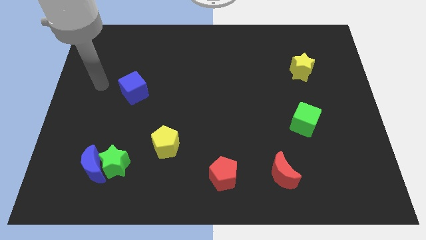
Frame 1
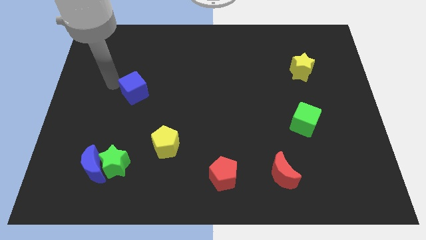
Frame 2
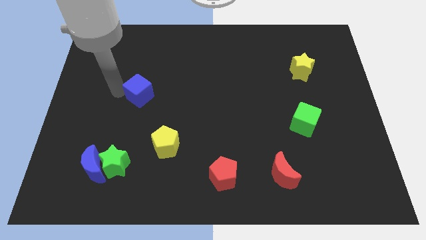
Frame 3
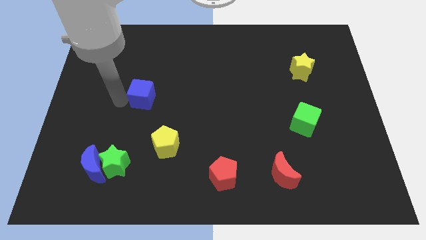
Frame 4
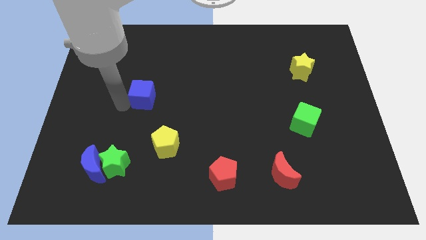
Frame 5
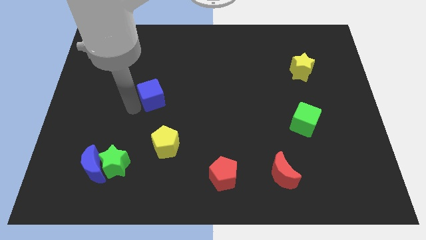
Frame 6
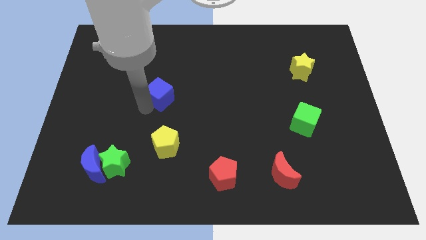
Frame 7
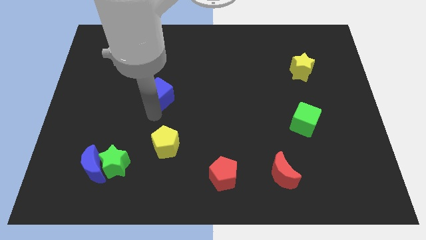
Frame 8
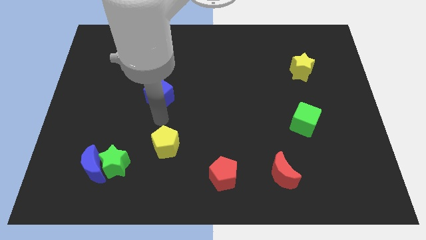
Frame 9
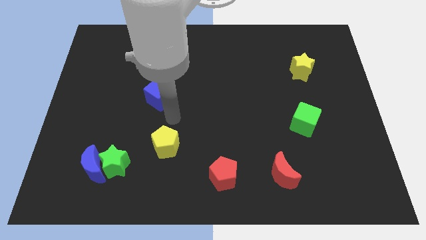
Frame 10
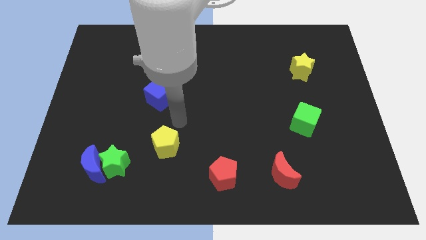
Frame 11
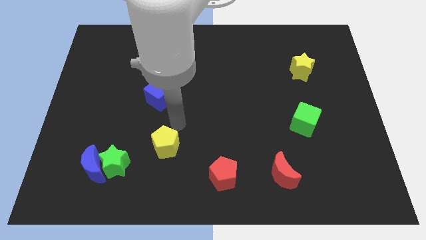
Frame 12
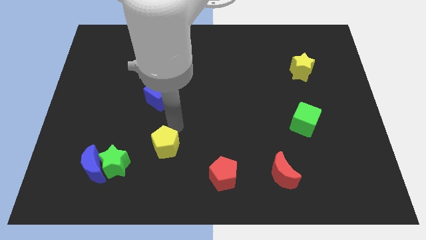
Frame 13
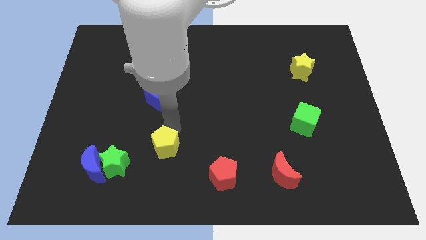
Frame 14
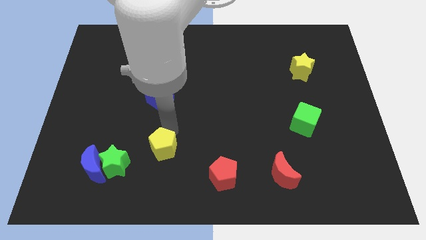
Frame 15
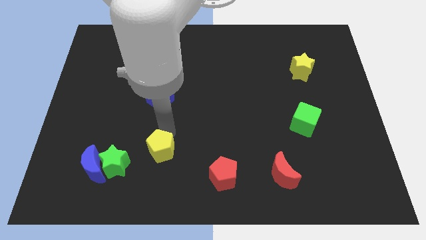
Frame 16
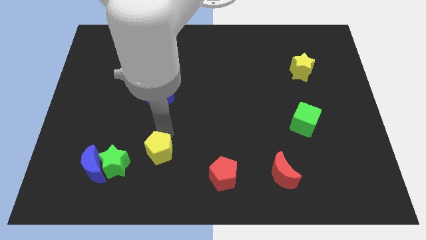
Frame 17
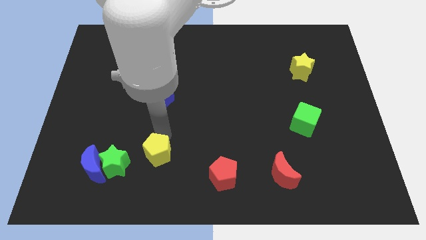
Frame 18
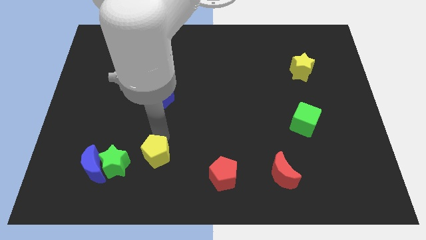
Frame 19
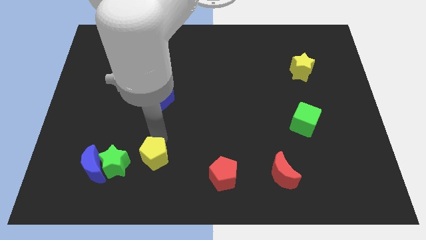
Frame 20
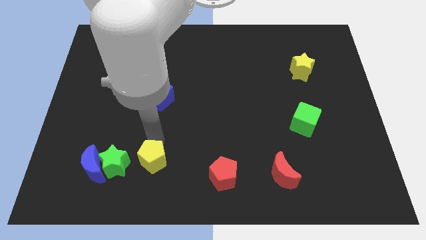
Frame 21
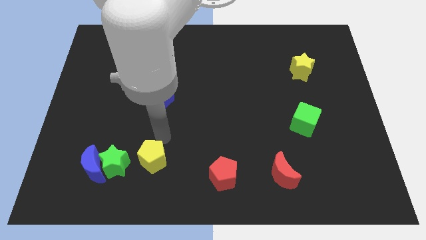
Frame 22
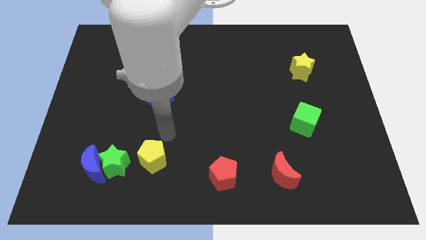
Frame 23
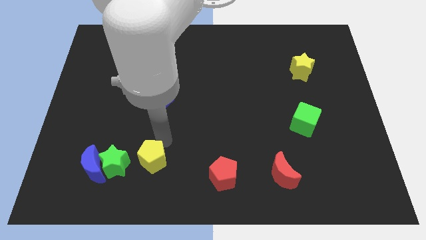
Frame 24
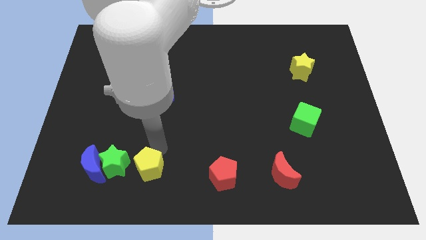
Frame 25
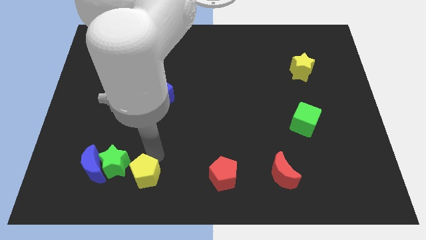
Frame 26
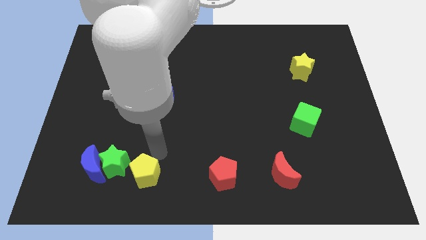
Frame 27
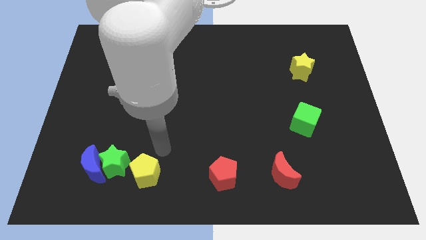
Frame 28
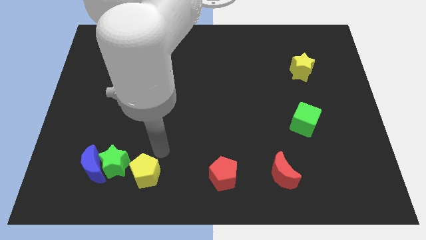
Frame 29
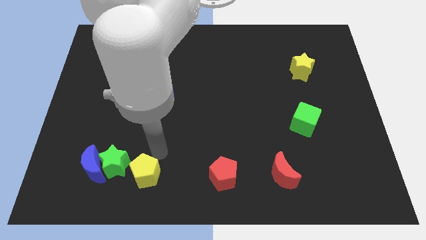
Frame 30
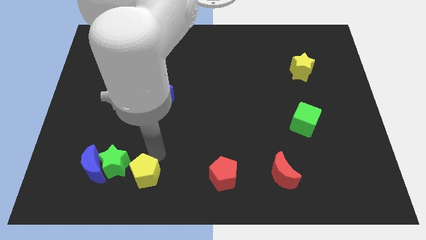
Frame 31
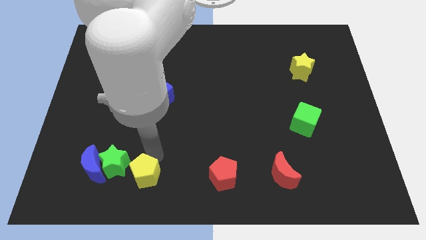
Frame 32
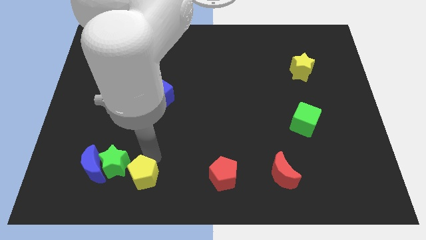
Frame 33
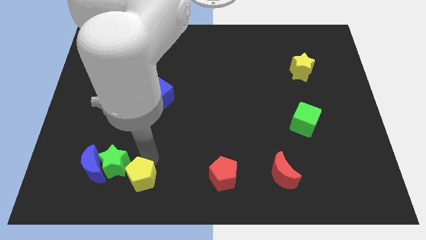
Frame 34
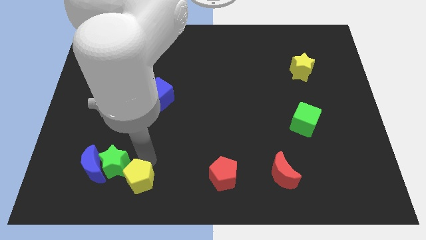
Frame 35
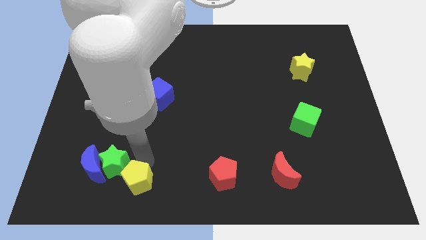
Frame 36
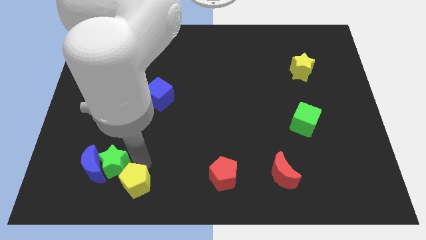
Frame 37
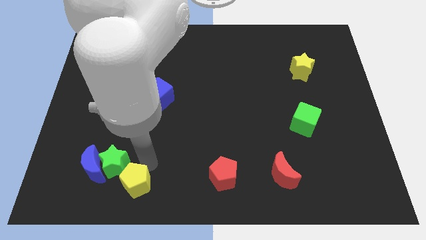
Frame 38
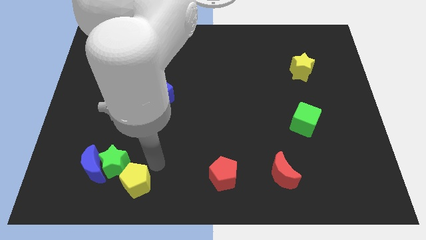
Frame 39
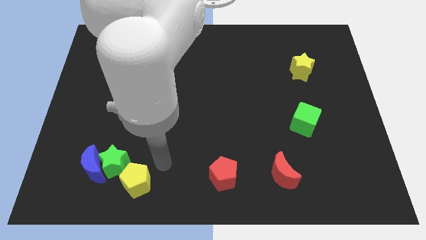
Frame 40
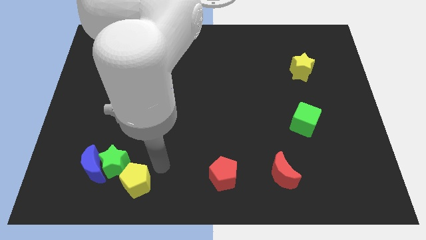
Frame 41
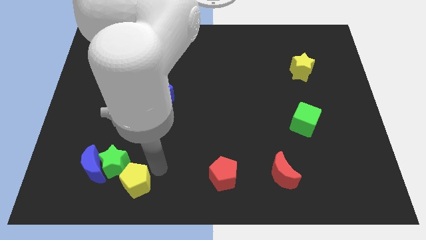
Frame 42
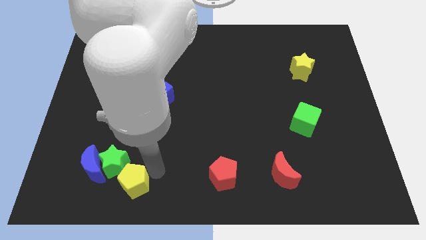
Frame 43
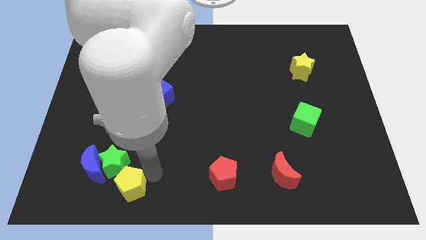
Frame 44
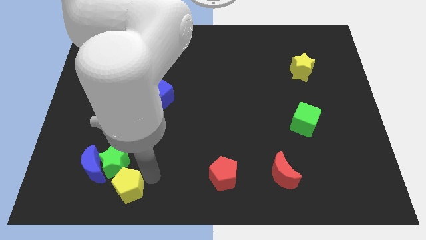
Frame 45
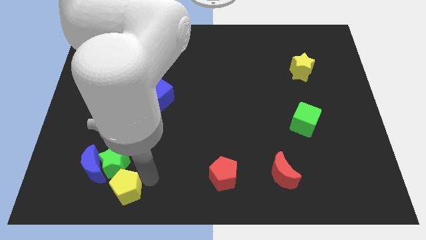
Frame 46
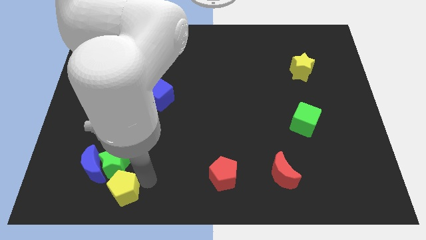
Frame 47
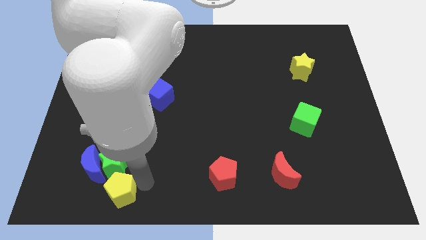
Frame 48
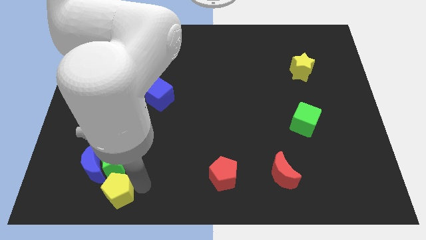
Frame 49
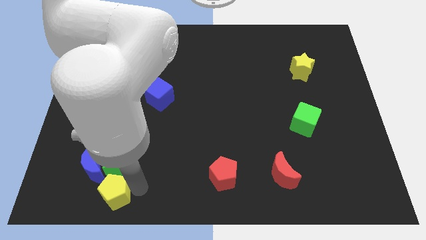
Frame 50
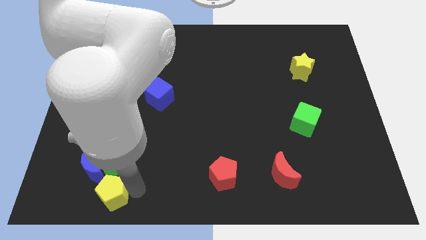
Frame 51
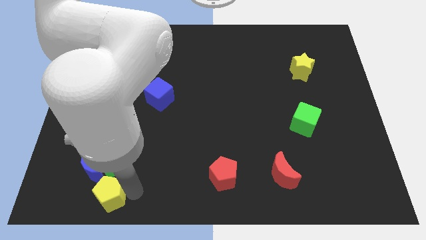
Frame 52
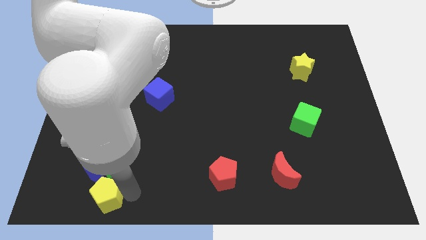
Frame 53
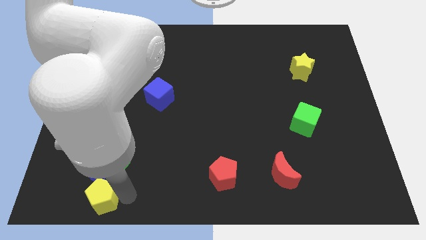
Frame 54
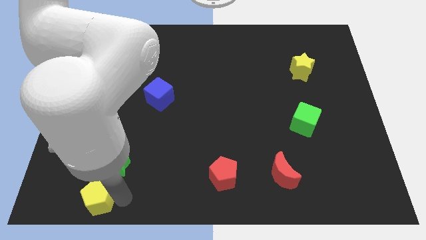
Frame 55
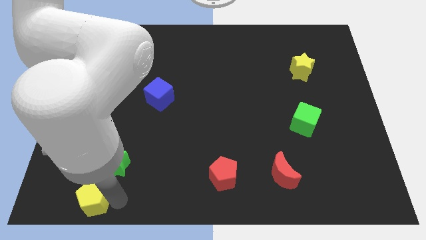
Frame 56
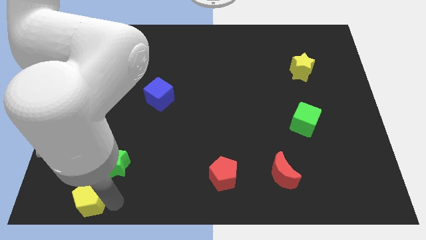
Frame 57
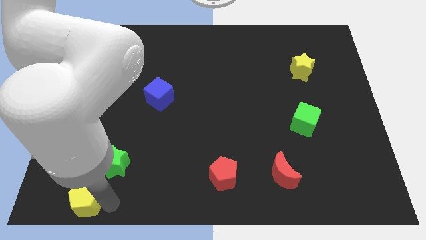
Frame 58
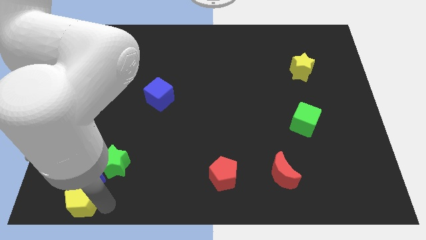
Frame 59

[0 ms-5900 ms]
put the yellow pentagon to the bottom left corner
